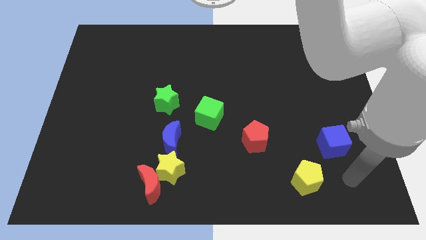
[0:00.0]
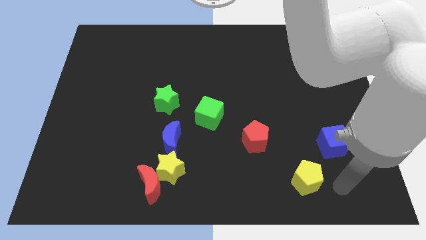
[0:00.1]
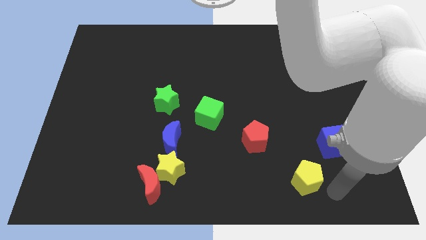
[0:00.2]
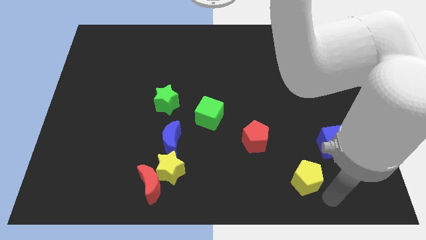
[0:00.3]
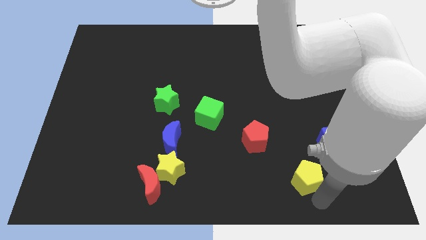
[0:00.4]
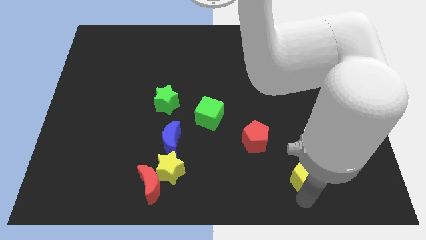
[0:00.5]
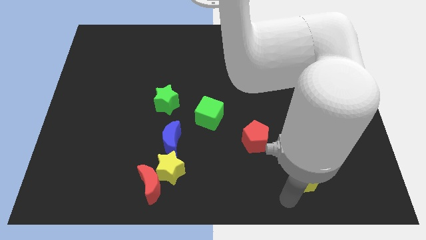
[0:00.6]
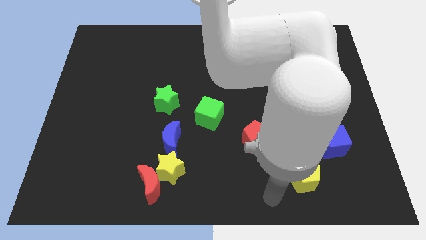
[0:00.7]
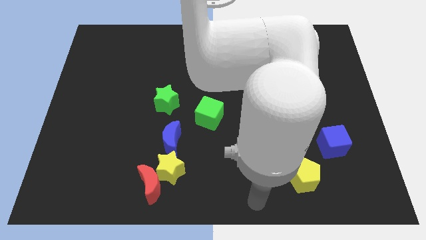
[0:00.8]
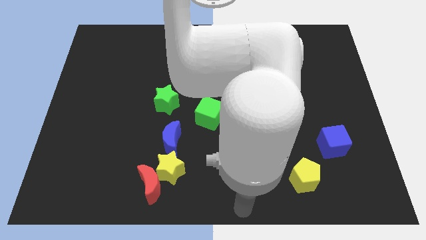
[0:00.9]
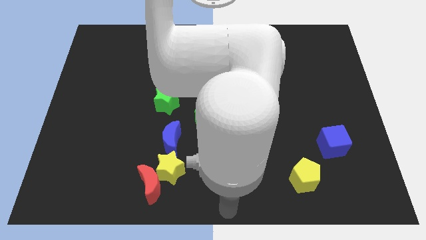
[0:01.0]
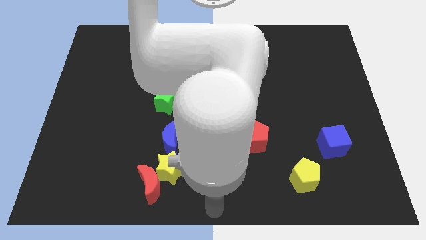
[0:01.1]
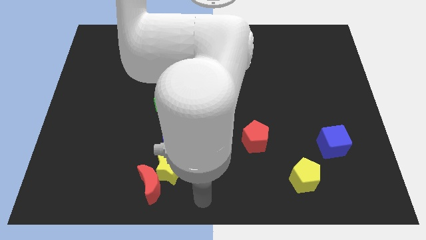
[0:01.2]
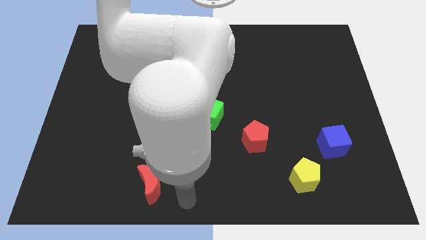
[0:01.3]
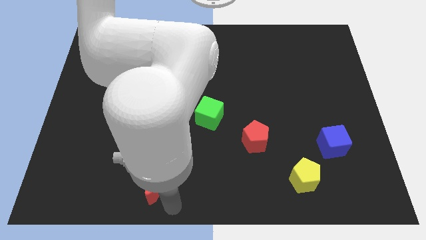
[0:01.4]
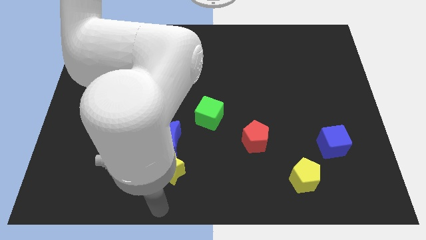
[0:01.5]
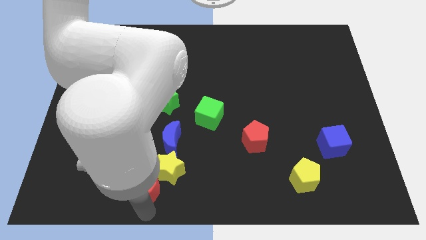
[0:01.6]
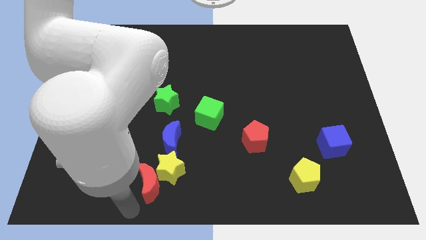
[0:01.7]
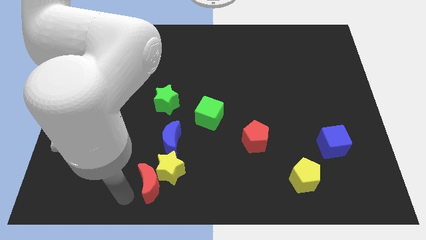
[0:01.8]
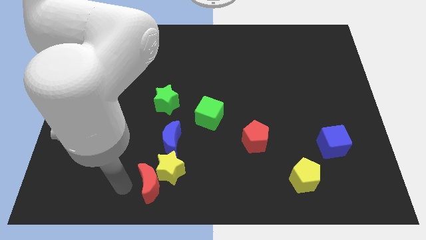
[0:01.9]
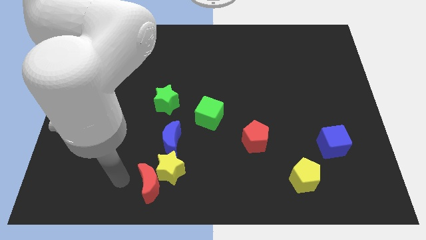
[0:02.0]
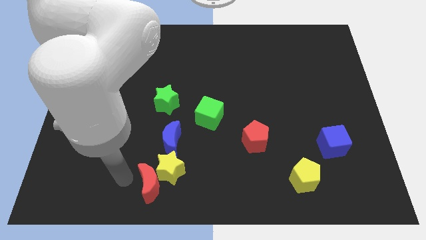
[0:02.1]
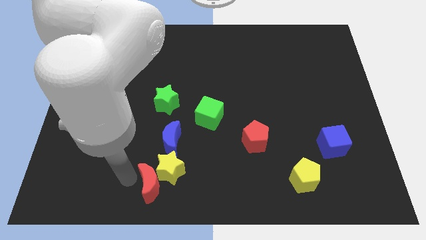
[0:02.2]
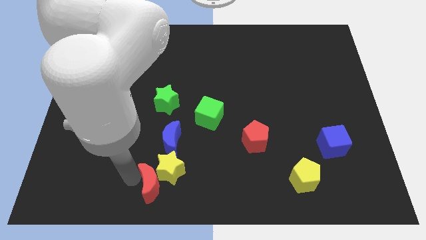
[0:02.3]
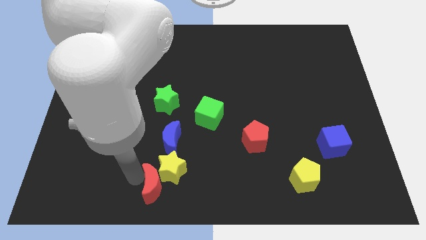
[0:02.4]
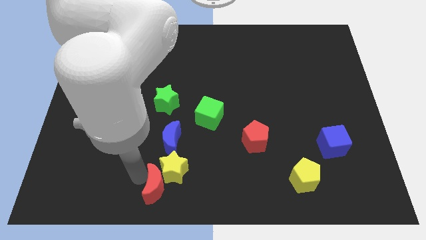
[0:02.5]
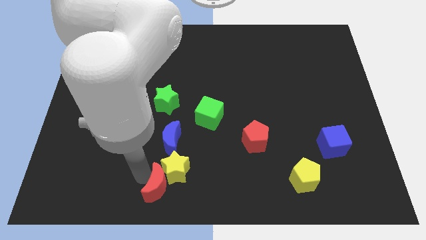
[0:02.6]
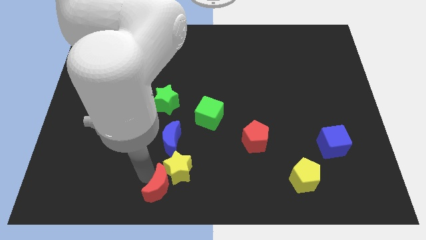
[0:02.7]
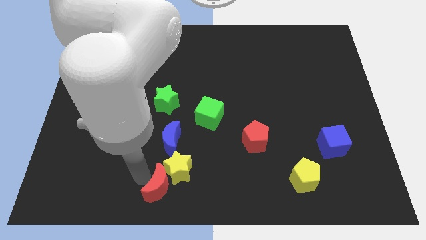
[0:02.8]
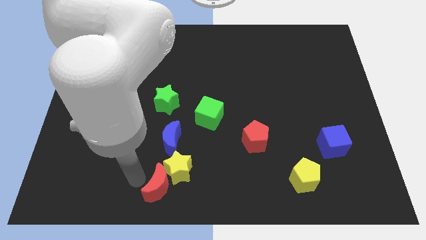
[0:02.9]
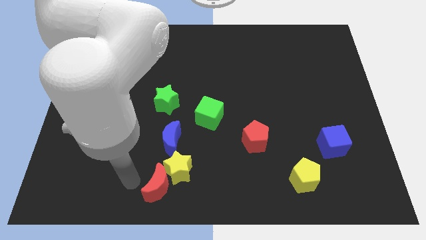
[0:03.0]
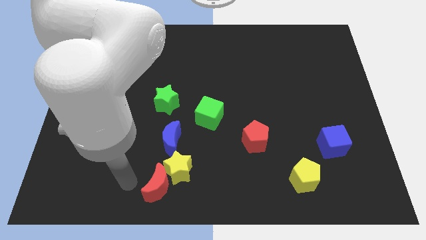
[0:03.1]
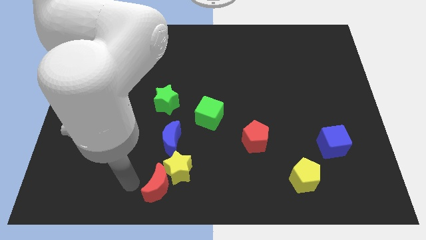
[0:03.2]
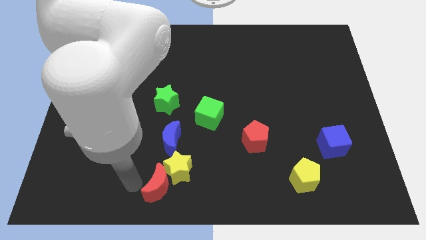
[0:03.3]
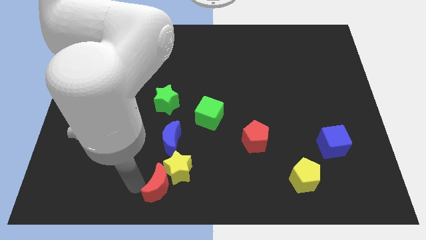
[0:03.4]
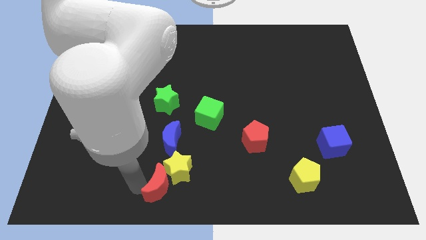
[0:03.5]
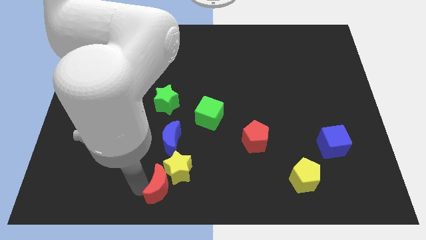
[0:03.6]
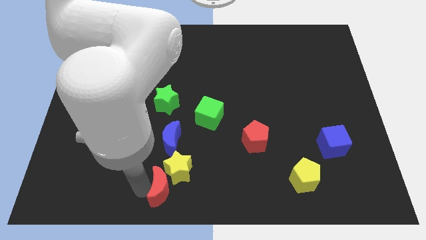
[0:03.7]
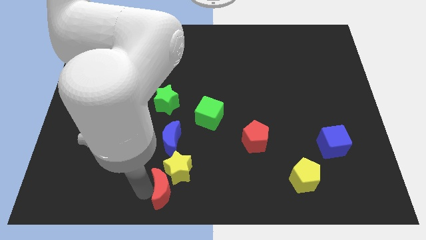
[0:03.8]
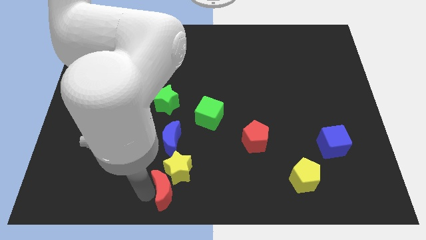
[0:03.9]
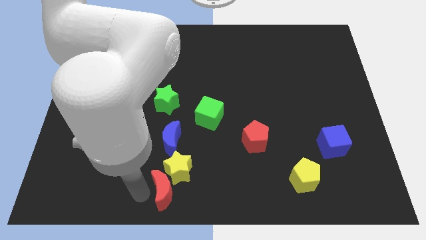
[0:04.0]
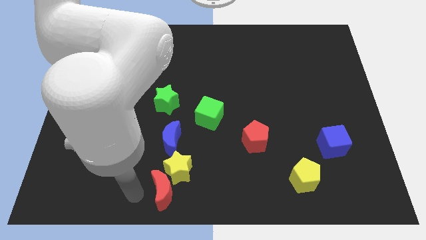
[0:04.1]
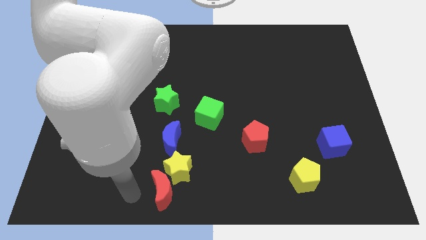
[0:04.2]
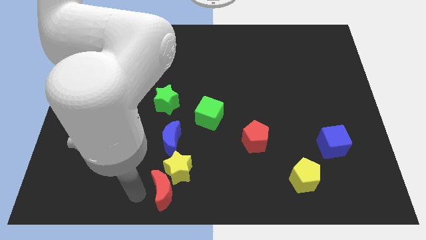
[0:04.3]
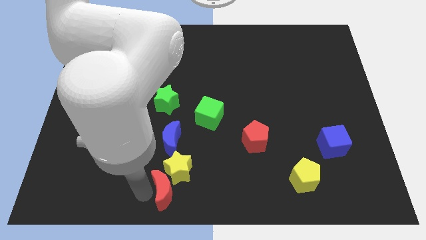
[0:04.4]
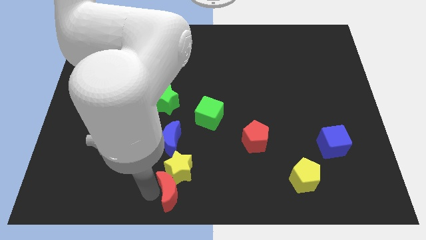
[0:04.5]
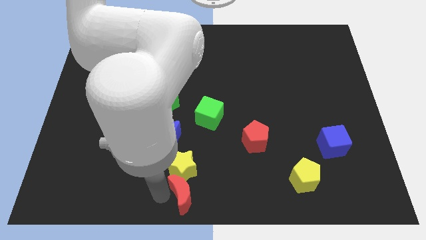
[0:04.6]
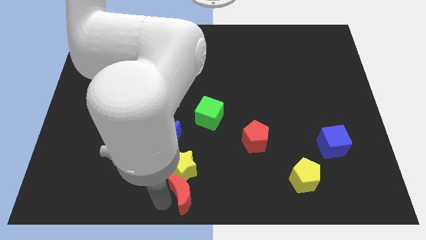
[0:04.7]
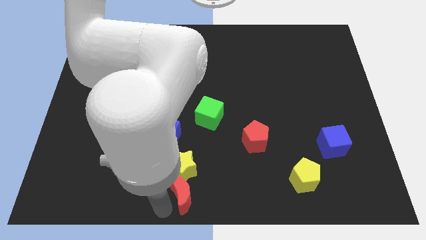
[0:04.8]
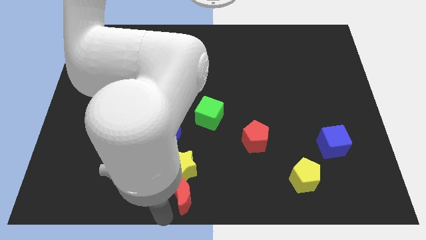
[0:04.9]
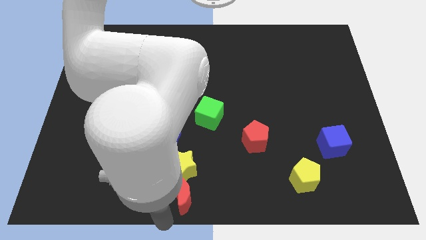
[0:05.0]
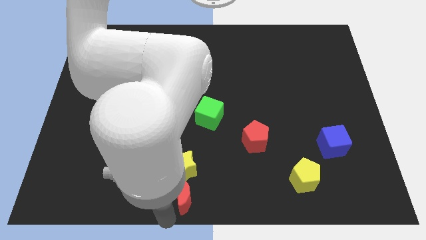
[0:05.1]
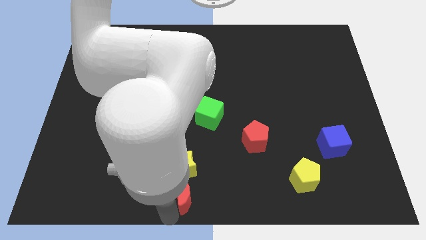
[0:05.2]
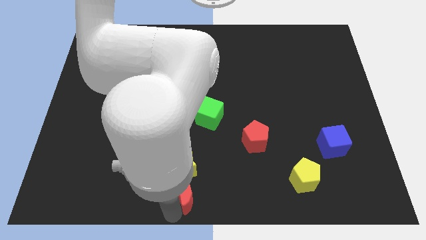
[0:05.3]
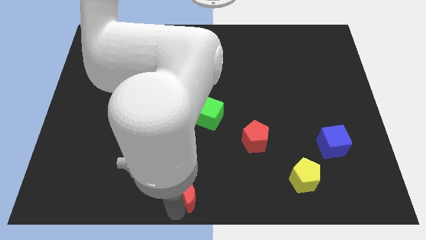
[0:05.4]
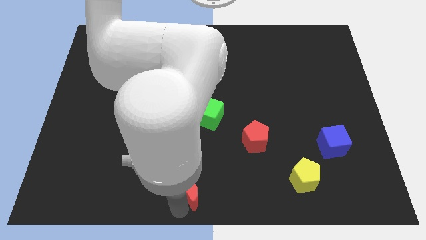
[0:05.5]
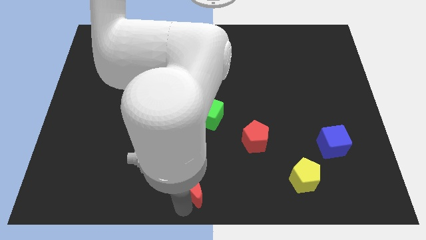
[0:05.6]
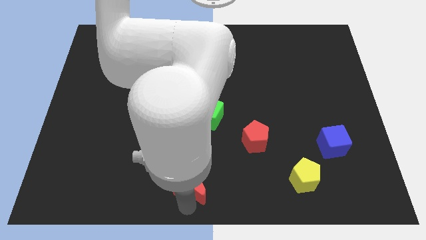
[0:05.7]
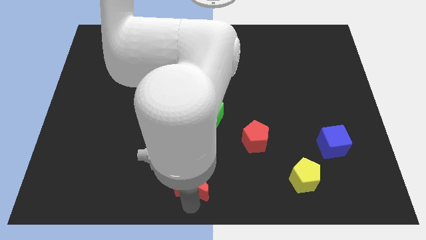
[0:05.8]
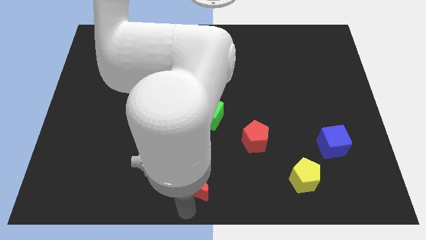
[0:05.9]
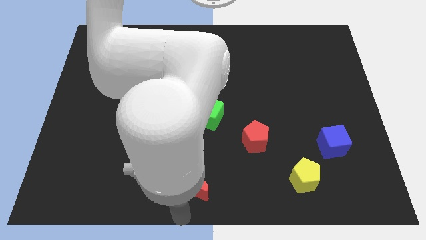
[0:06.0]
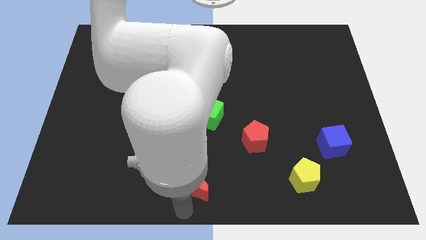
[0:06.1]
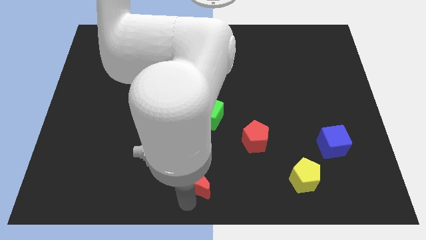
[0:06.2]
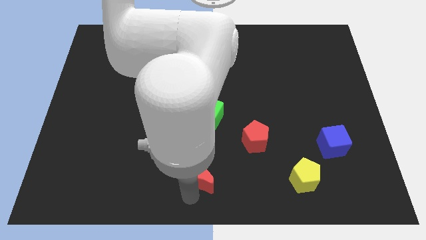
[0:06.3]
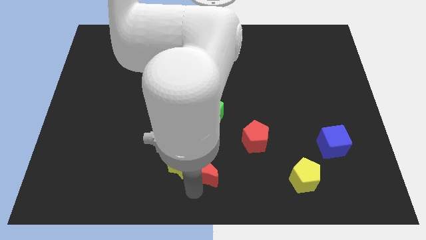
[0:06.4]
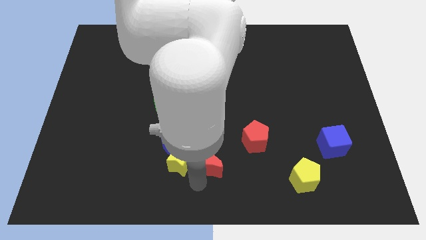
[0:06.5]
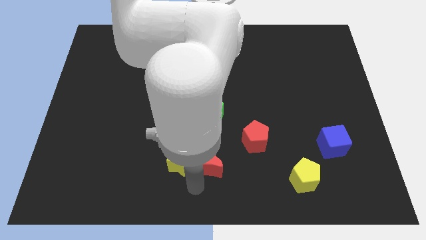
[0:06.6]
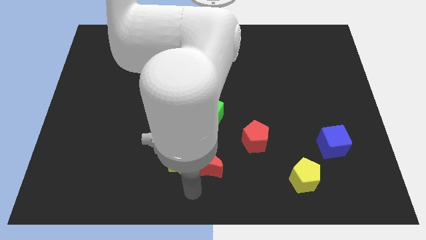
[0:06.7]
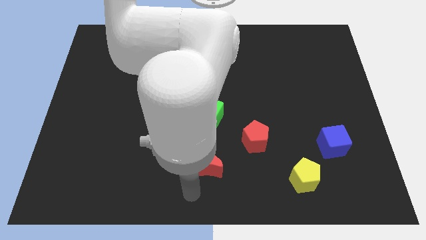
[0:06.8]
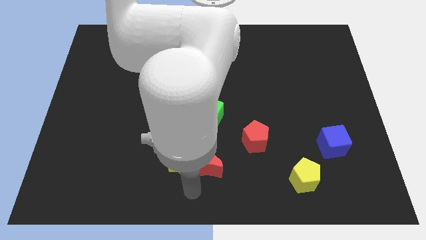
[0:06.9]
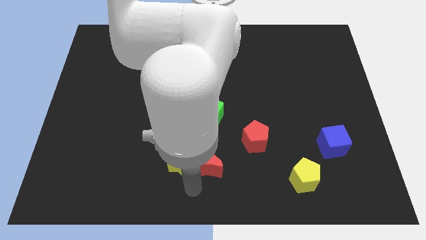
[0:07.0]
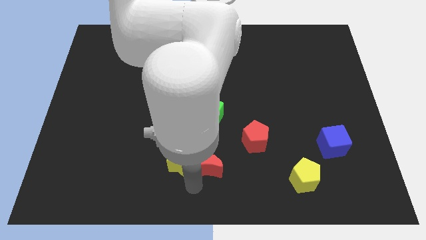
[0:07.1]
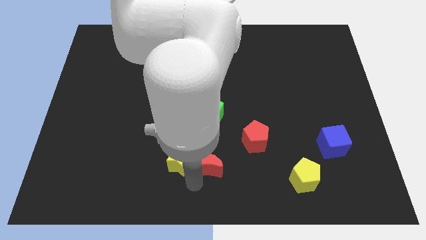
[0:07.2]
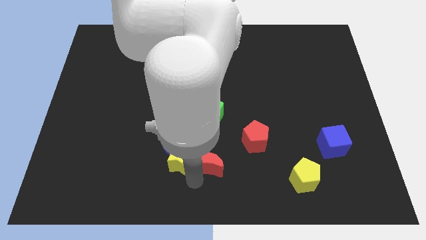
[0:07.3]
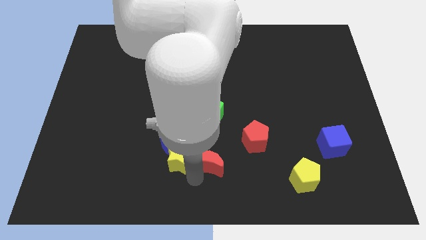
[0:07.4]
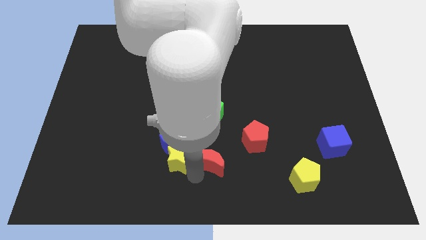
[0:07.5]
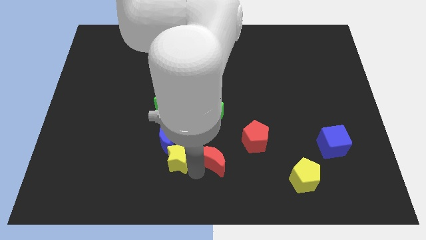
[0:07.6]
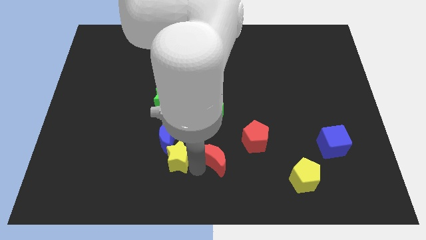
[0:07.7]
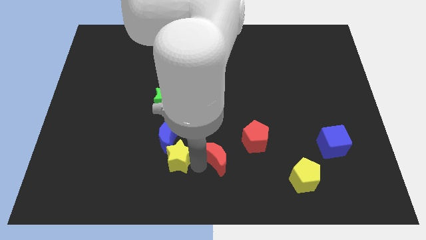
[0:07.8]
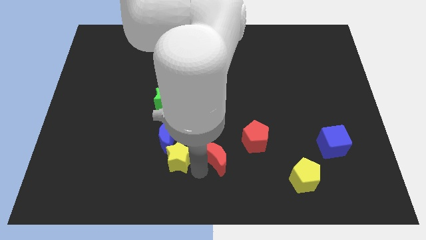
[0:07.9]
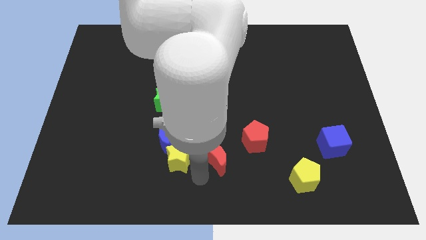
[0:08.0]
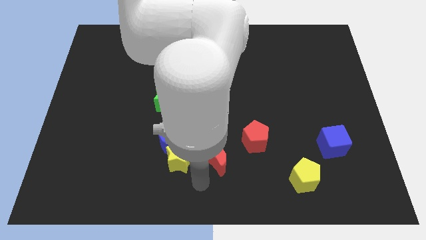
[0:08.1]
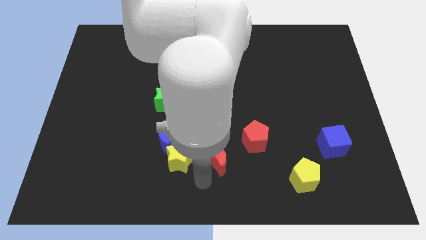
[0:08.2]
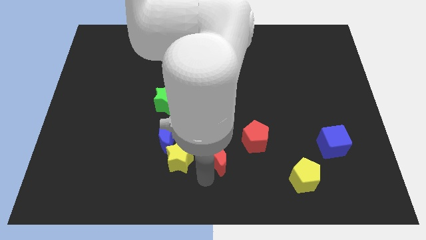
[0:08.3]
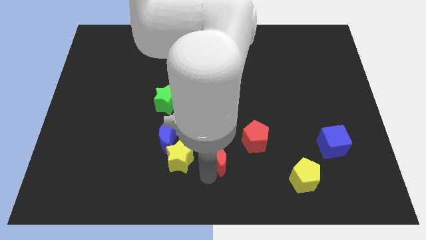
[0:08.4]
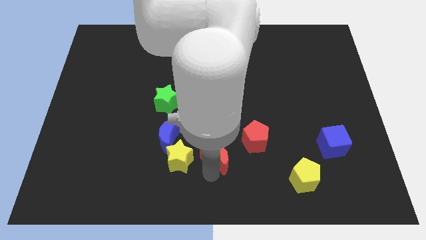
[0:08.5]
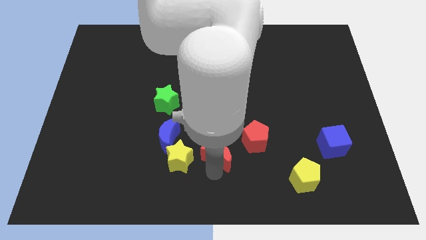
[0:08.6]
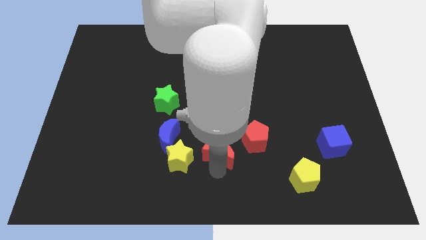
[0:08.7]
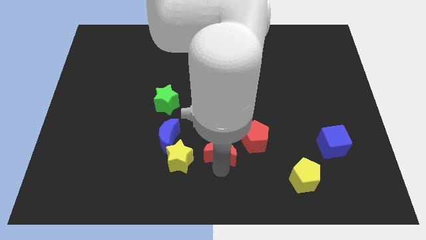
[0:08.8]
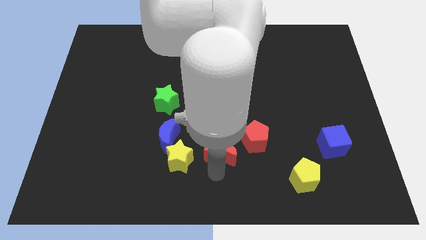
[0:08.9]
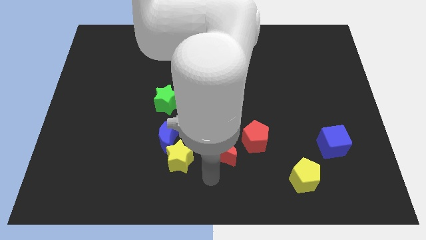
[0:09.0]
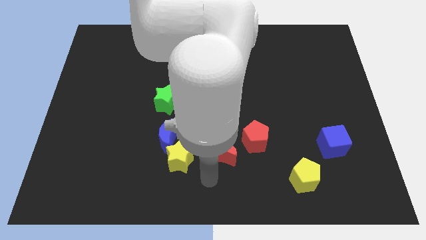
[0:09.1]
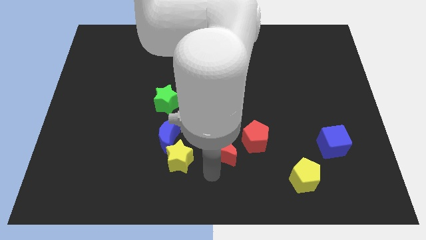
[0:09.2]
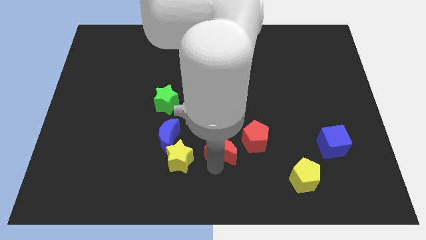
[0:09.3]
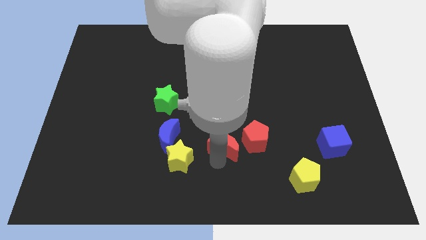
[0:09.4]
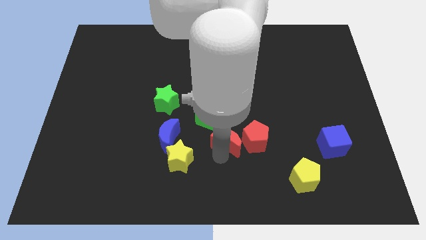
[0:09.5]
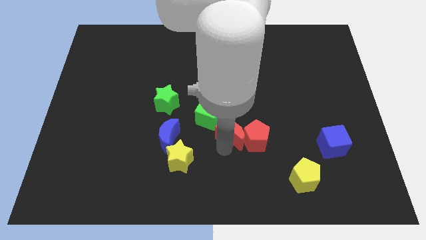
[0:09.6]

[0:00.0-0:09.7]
push the red moon diagonally upwards and to the right
